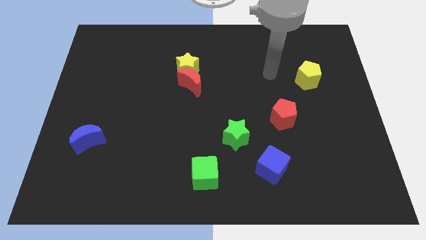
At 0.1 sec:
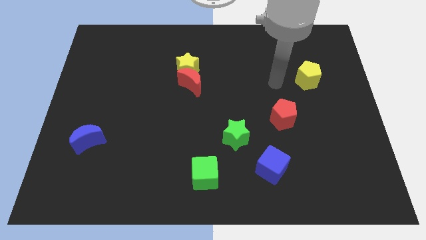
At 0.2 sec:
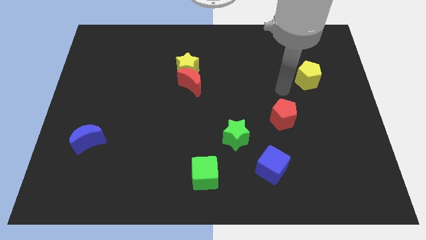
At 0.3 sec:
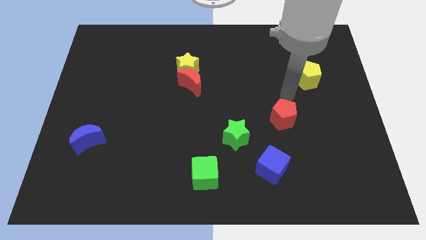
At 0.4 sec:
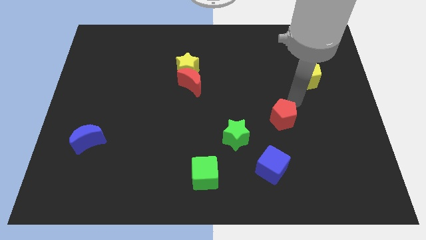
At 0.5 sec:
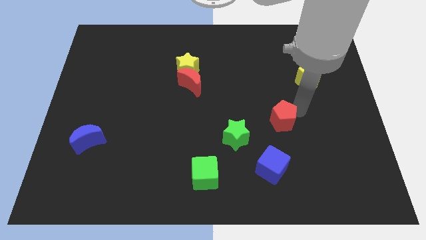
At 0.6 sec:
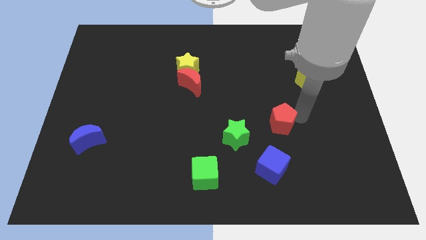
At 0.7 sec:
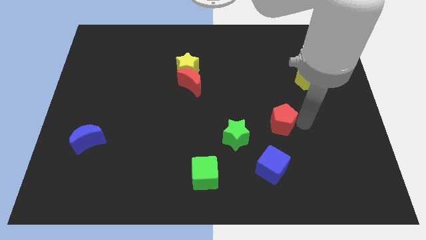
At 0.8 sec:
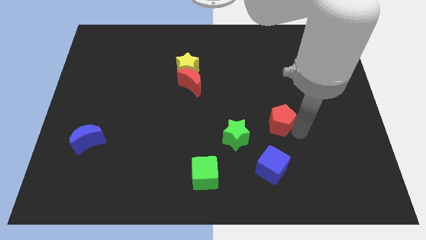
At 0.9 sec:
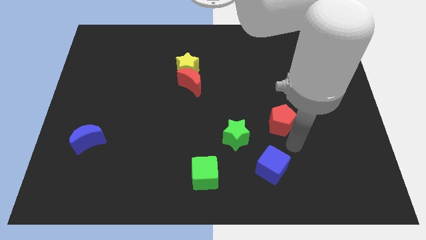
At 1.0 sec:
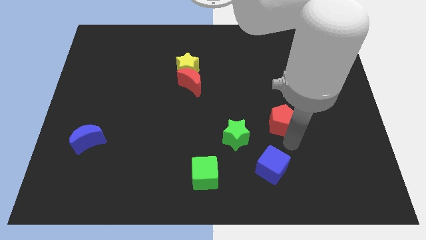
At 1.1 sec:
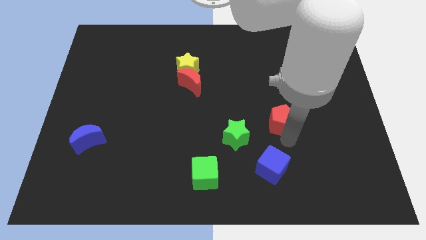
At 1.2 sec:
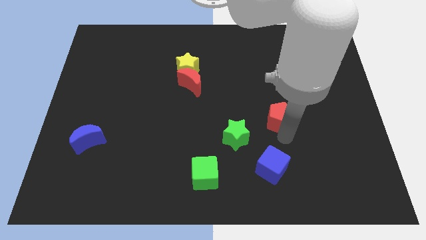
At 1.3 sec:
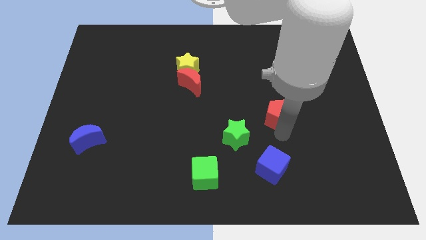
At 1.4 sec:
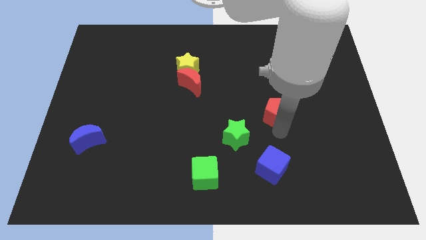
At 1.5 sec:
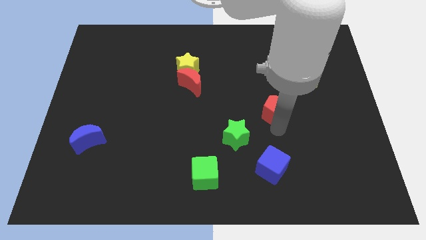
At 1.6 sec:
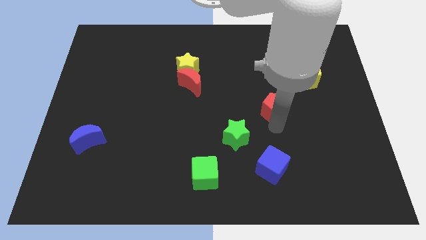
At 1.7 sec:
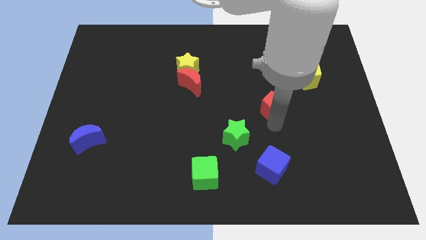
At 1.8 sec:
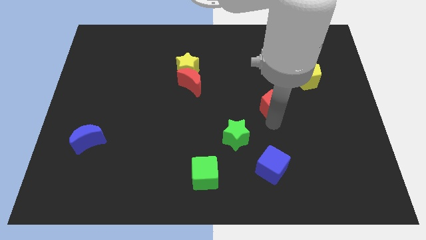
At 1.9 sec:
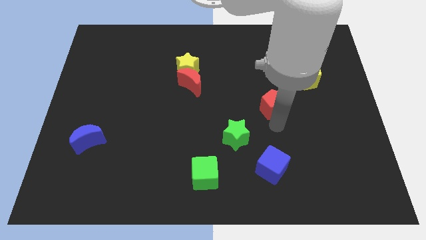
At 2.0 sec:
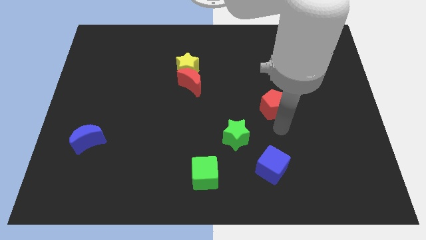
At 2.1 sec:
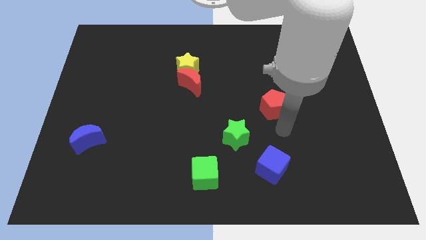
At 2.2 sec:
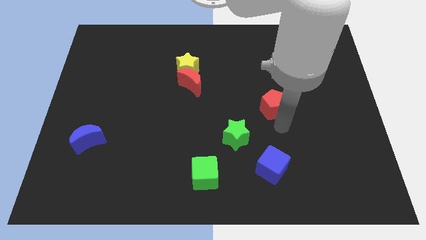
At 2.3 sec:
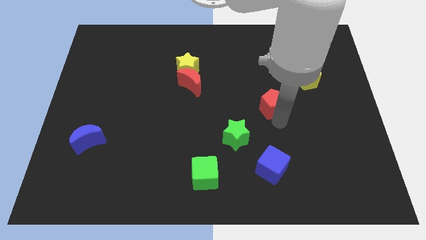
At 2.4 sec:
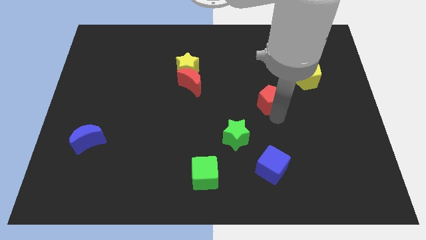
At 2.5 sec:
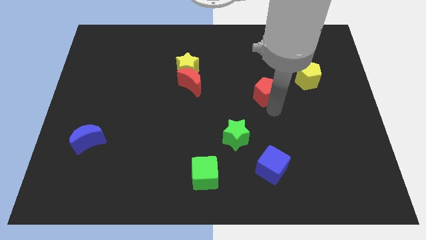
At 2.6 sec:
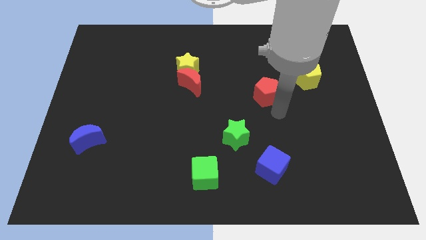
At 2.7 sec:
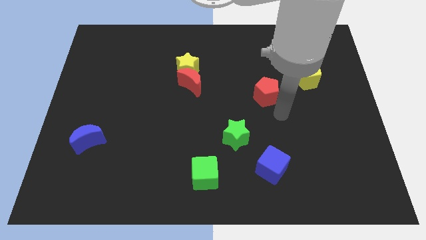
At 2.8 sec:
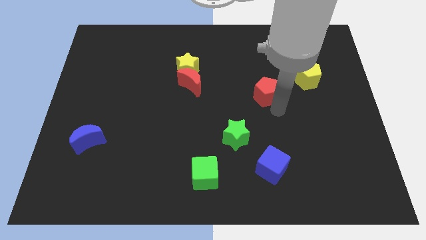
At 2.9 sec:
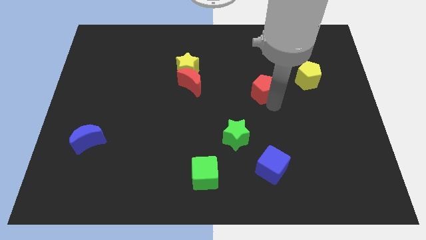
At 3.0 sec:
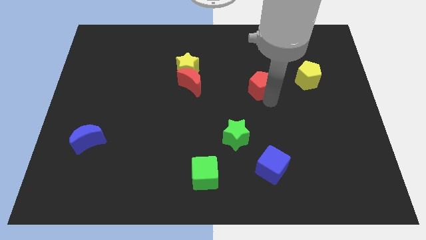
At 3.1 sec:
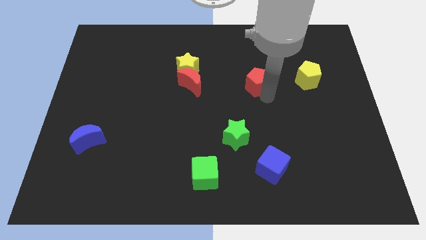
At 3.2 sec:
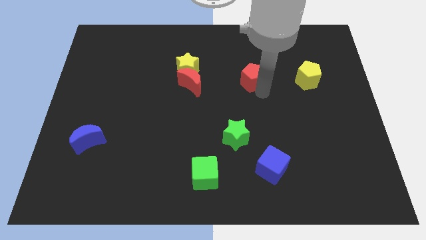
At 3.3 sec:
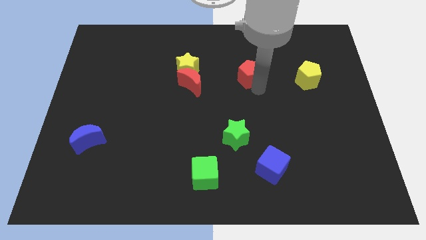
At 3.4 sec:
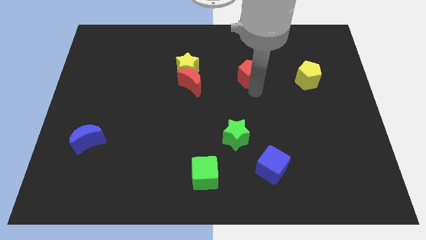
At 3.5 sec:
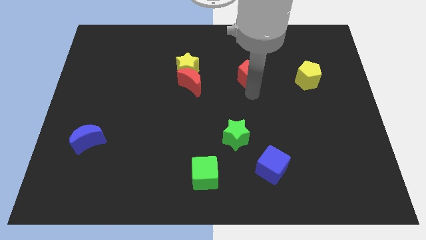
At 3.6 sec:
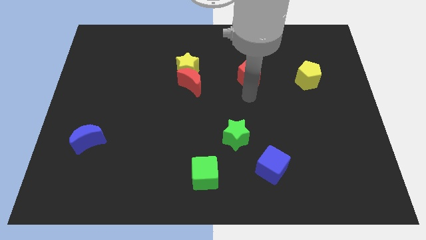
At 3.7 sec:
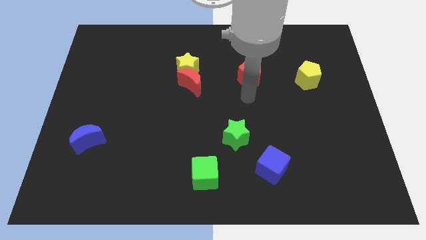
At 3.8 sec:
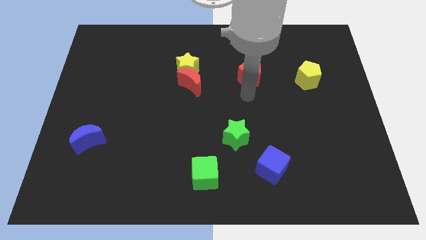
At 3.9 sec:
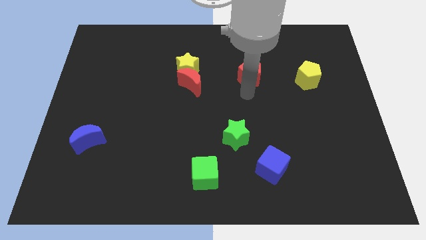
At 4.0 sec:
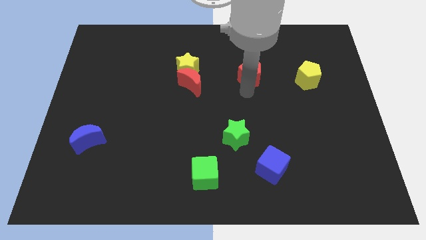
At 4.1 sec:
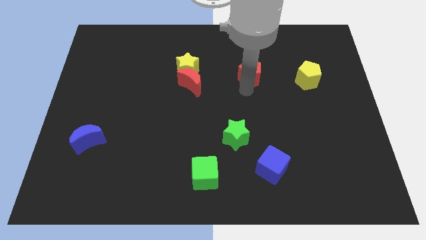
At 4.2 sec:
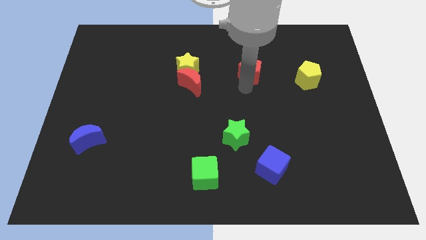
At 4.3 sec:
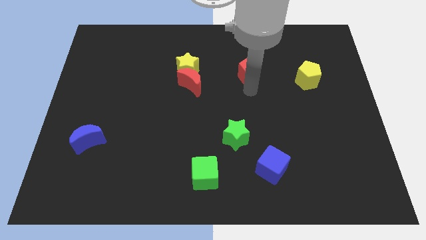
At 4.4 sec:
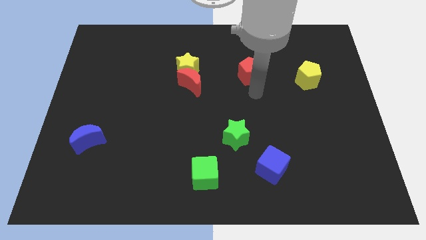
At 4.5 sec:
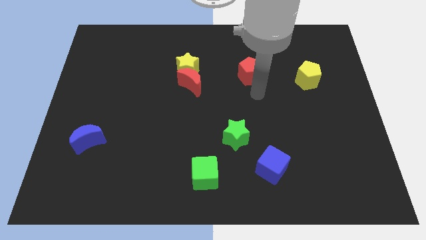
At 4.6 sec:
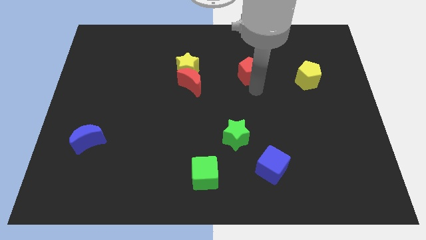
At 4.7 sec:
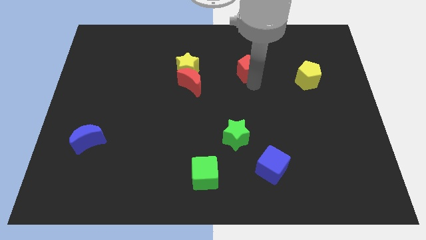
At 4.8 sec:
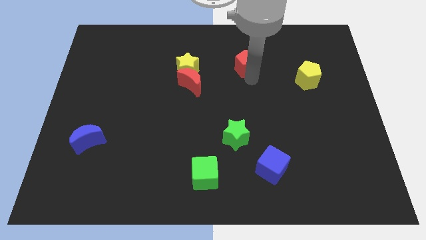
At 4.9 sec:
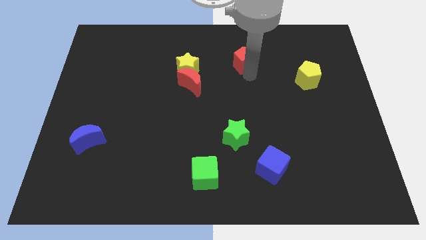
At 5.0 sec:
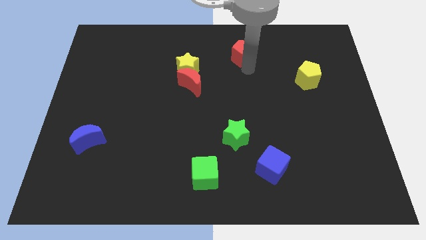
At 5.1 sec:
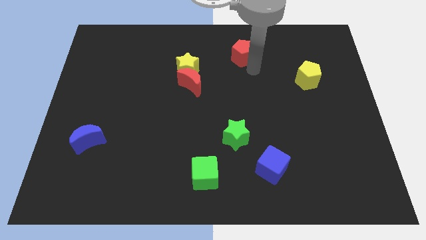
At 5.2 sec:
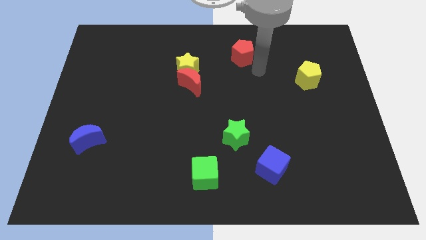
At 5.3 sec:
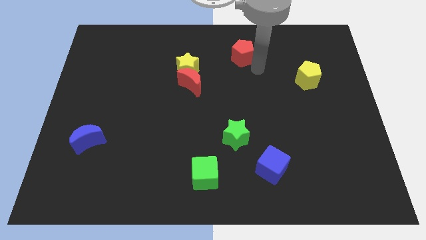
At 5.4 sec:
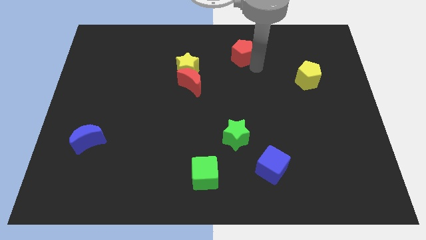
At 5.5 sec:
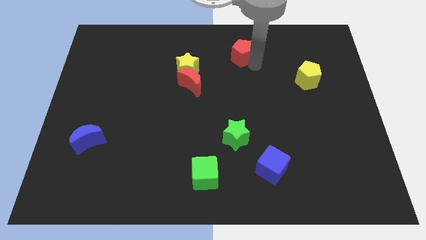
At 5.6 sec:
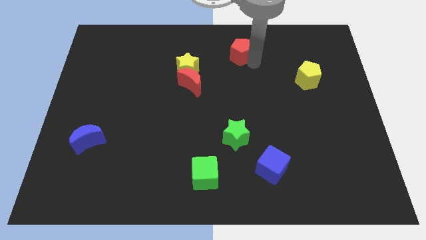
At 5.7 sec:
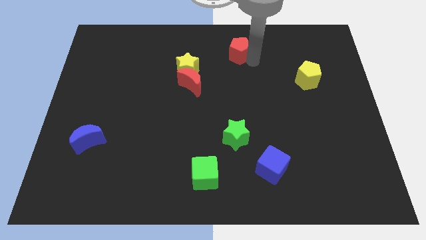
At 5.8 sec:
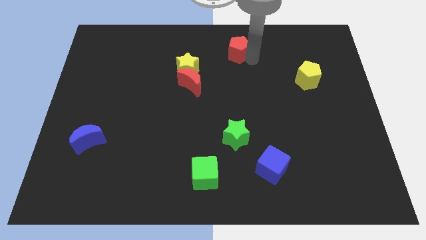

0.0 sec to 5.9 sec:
slide the red pentagon to the top side
